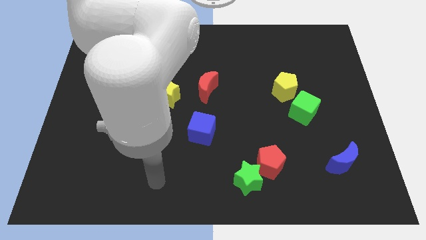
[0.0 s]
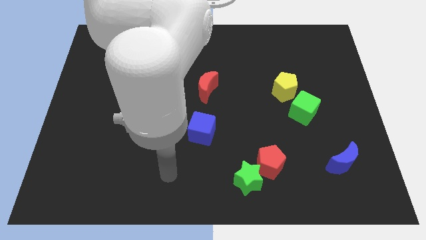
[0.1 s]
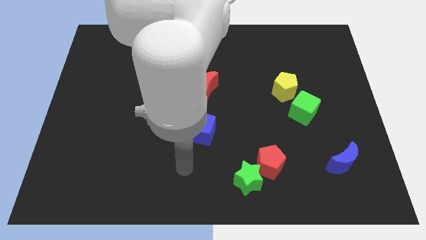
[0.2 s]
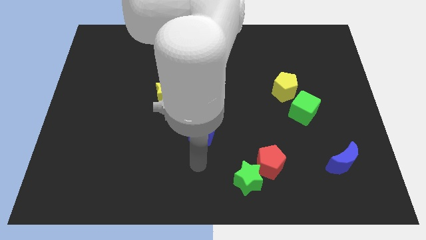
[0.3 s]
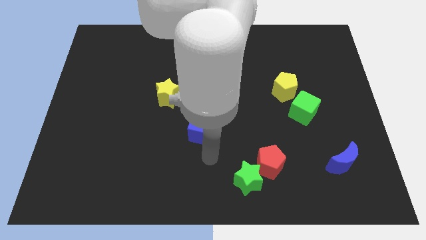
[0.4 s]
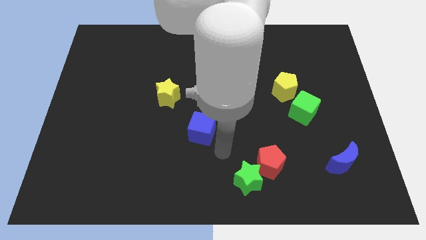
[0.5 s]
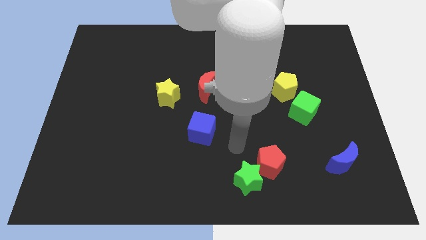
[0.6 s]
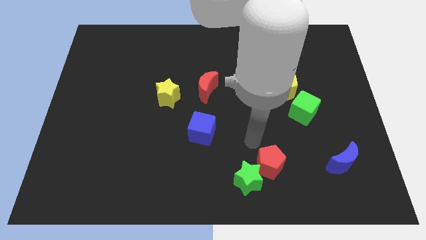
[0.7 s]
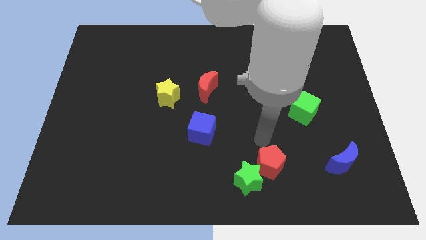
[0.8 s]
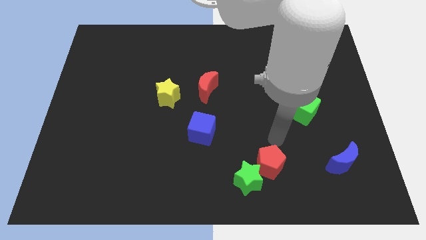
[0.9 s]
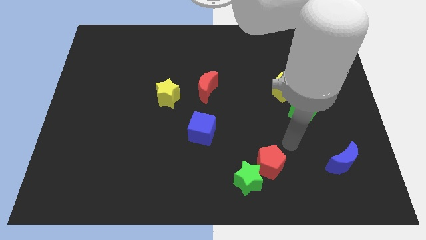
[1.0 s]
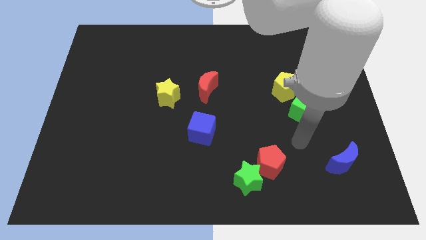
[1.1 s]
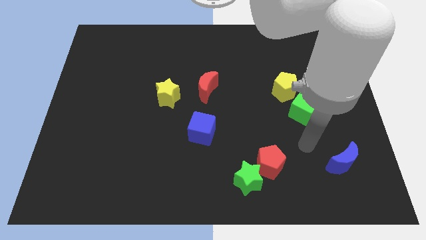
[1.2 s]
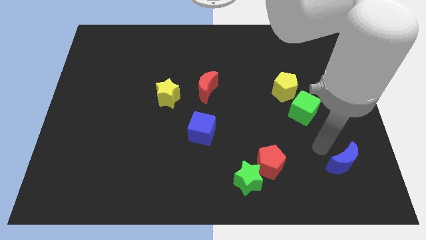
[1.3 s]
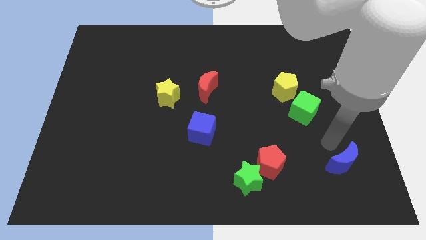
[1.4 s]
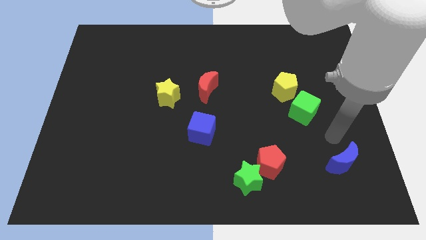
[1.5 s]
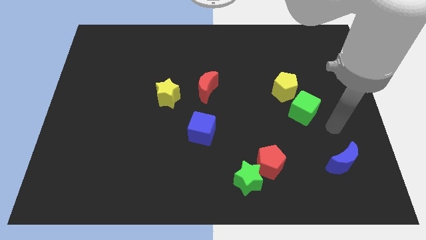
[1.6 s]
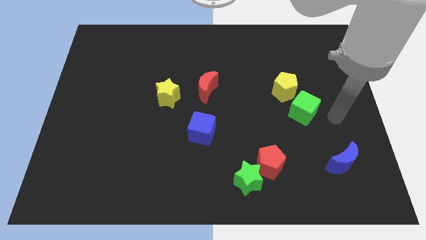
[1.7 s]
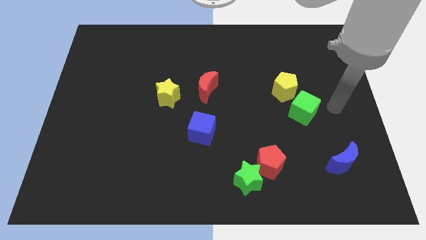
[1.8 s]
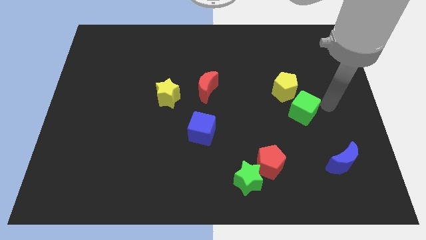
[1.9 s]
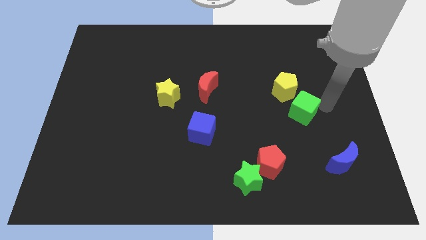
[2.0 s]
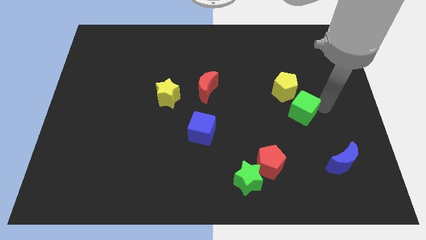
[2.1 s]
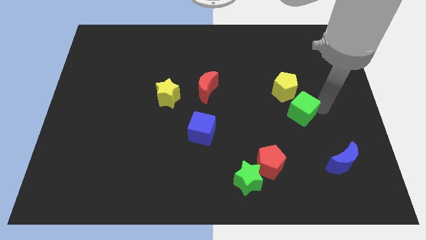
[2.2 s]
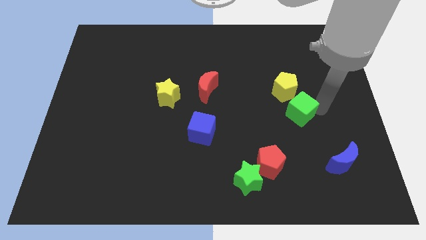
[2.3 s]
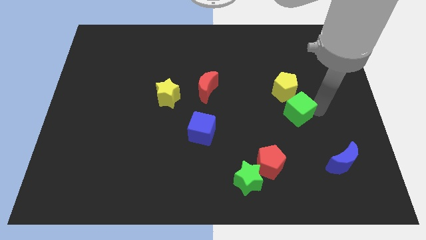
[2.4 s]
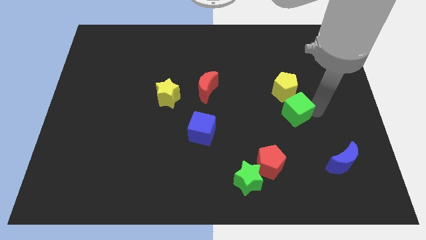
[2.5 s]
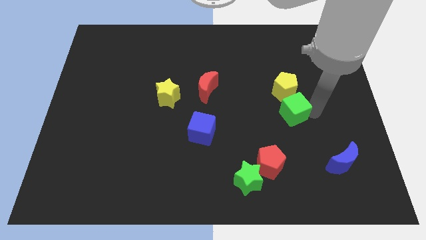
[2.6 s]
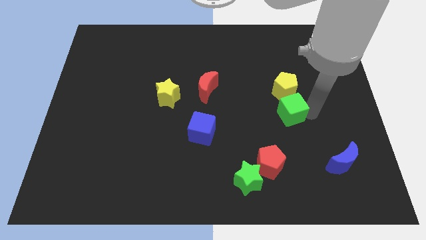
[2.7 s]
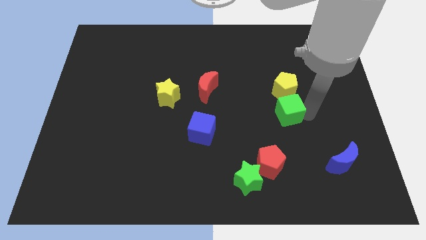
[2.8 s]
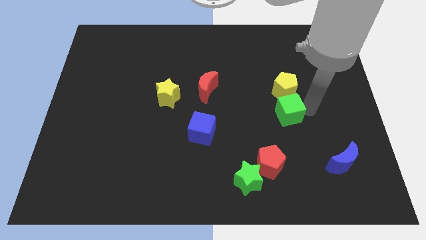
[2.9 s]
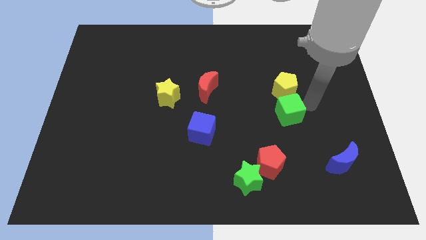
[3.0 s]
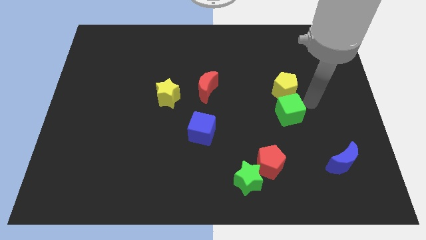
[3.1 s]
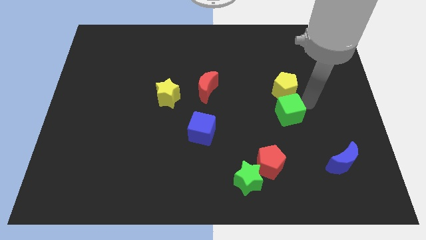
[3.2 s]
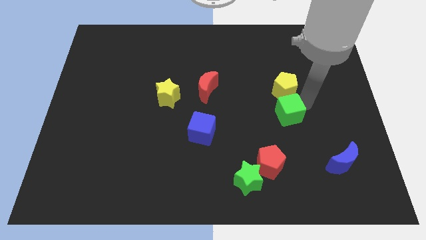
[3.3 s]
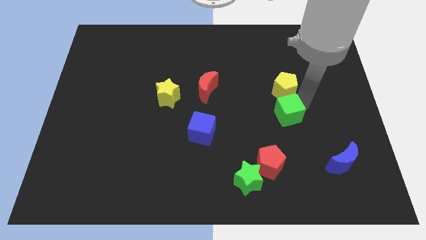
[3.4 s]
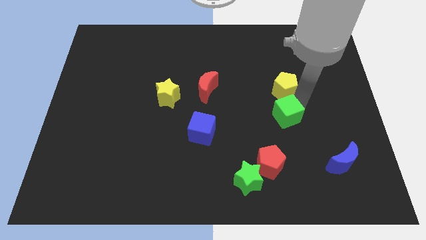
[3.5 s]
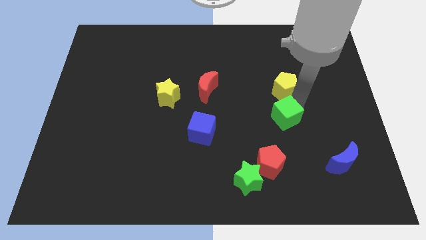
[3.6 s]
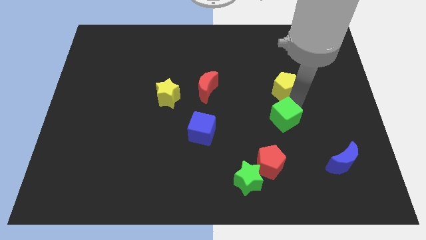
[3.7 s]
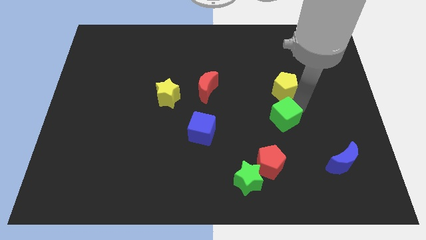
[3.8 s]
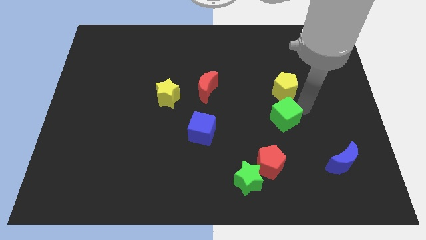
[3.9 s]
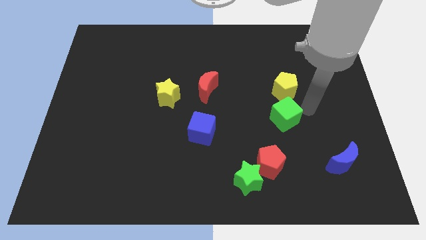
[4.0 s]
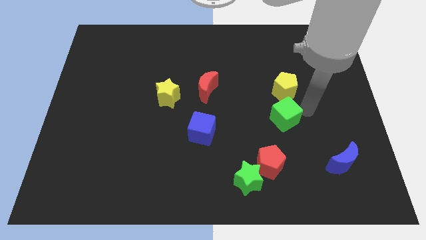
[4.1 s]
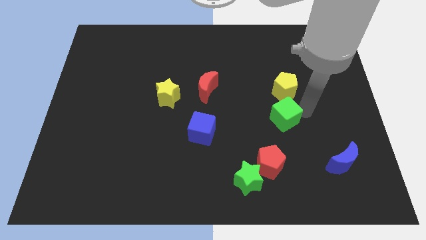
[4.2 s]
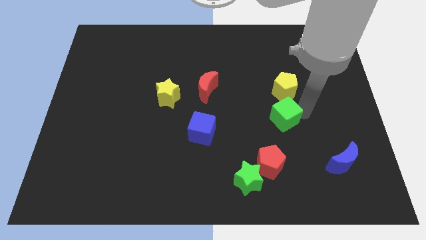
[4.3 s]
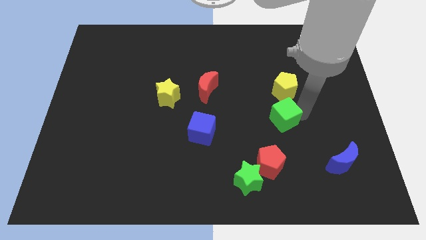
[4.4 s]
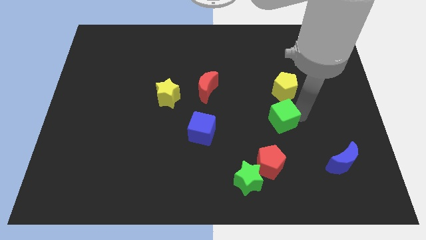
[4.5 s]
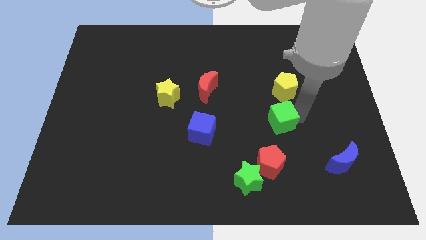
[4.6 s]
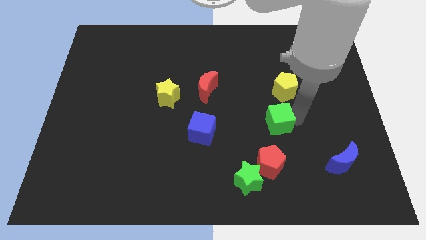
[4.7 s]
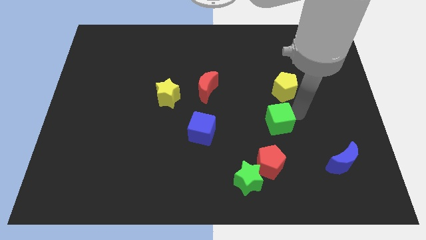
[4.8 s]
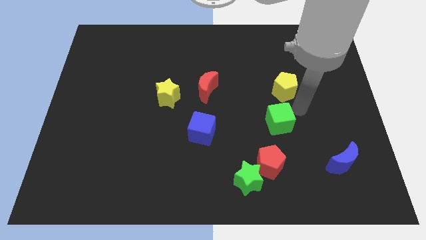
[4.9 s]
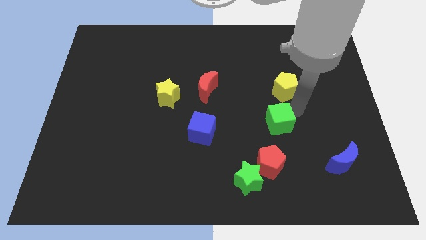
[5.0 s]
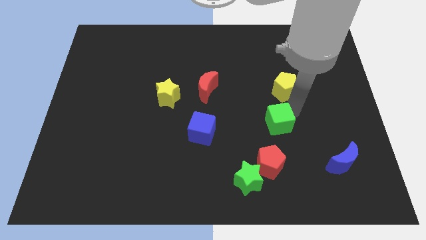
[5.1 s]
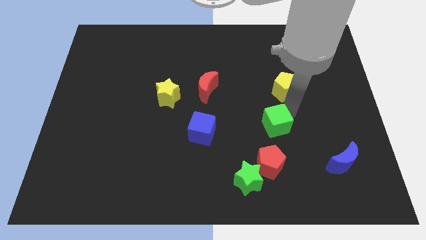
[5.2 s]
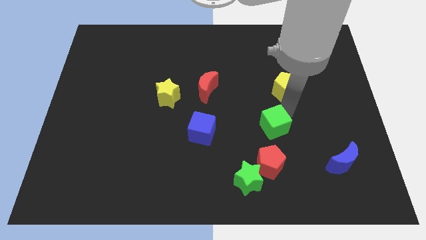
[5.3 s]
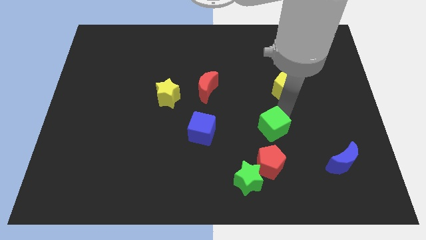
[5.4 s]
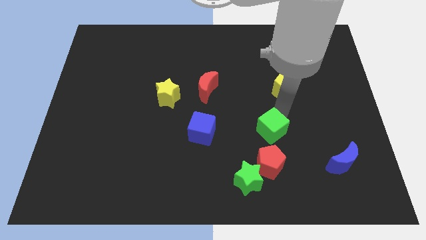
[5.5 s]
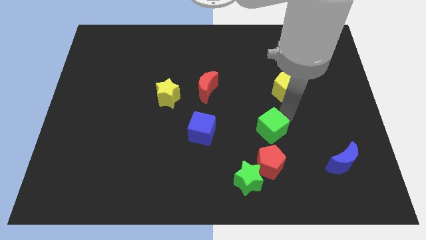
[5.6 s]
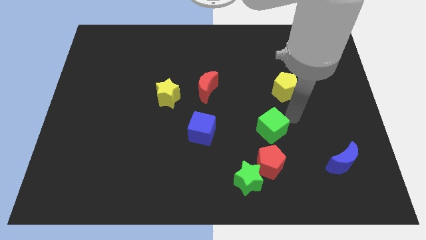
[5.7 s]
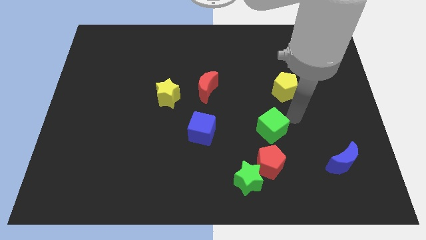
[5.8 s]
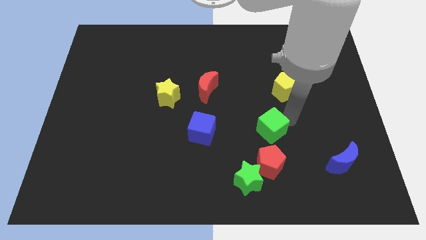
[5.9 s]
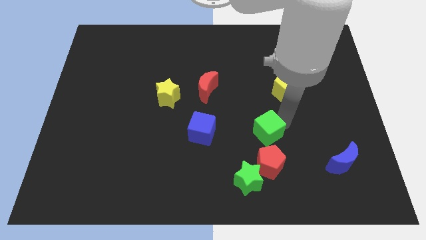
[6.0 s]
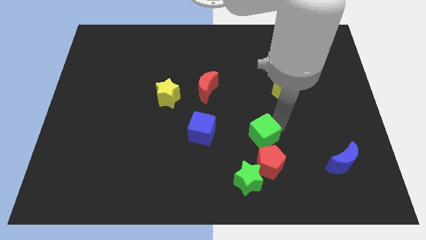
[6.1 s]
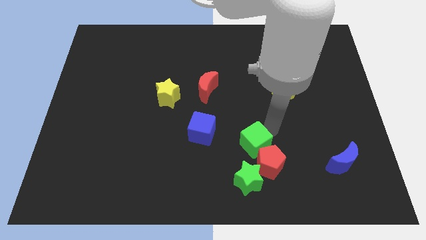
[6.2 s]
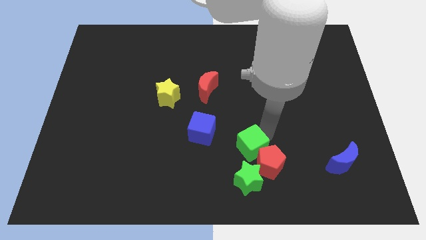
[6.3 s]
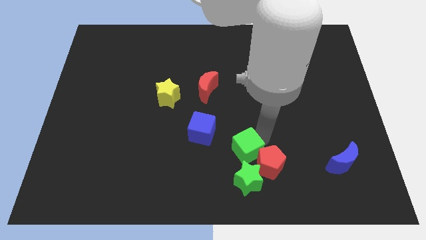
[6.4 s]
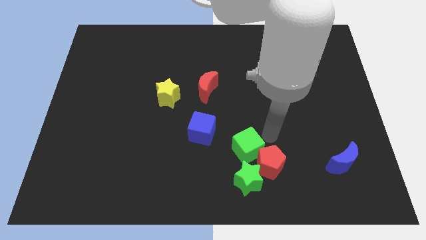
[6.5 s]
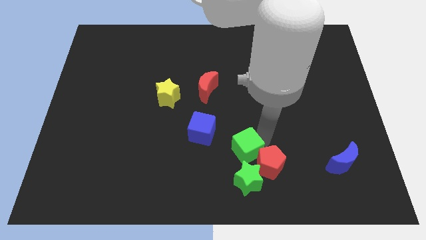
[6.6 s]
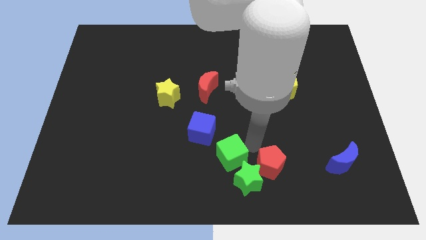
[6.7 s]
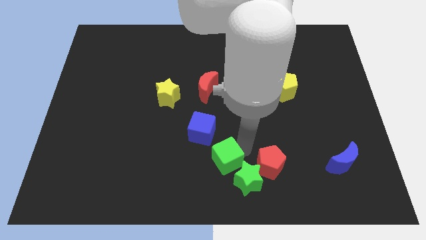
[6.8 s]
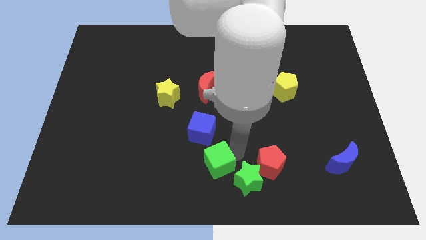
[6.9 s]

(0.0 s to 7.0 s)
push the green cube to the bottom of the blue cube

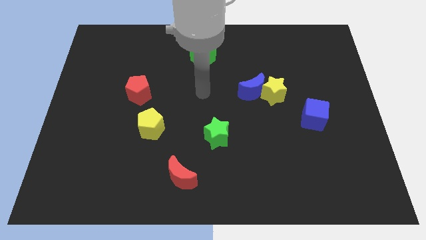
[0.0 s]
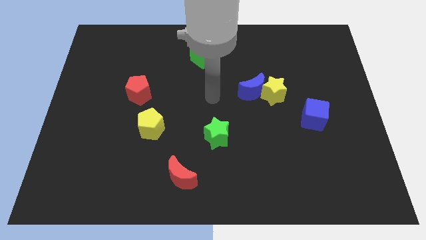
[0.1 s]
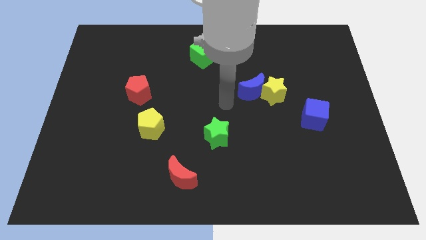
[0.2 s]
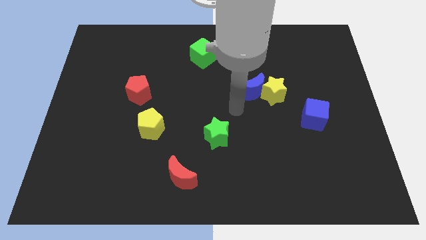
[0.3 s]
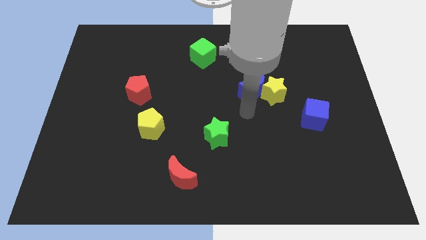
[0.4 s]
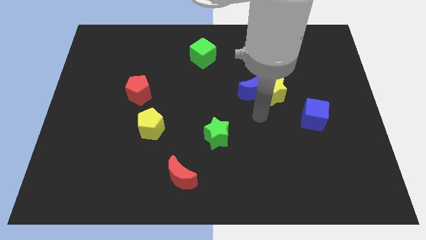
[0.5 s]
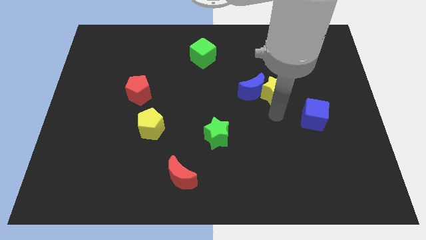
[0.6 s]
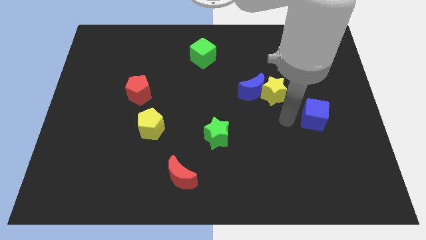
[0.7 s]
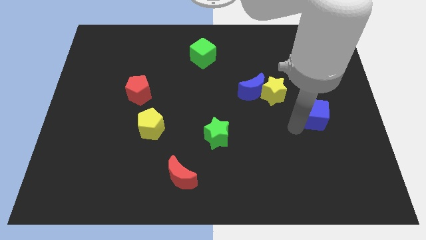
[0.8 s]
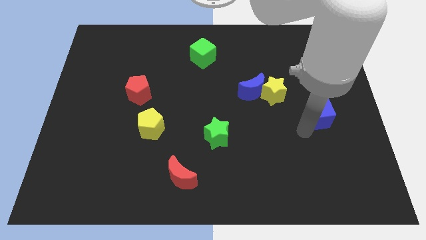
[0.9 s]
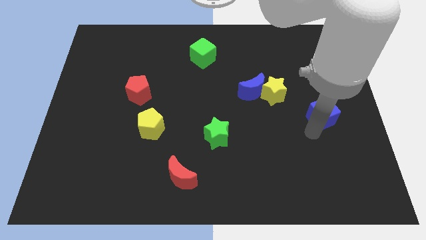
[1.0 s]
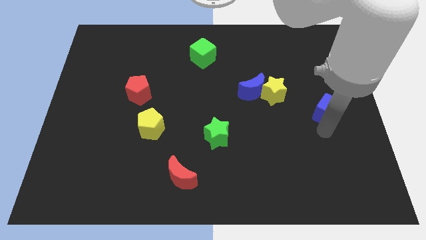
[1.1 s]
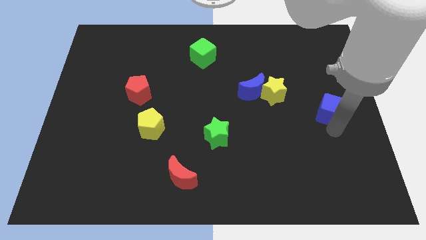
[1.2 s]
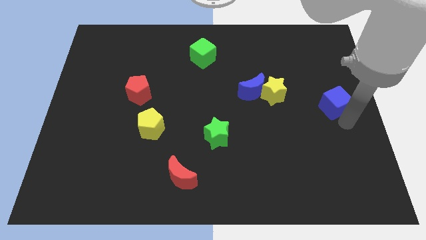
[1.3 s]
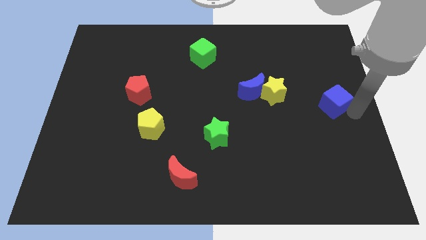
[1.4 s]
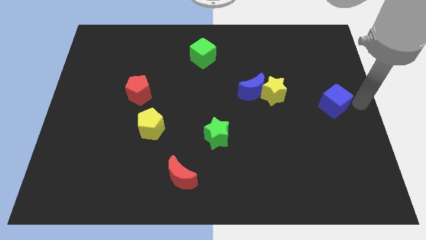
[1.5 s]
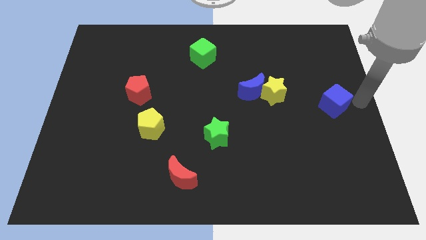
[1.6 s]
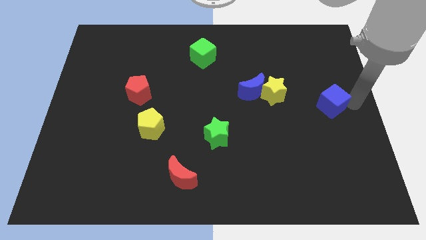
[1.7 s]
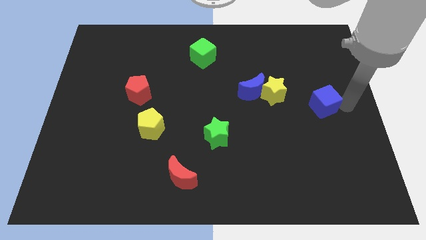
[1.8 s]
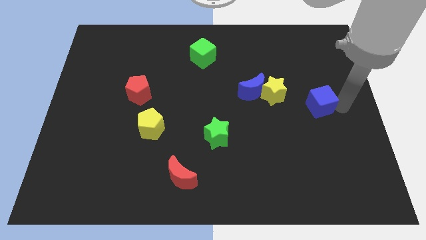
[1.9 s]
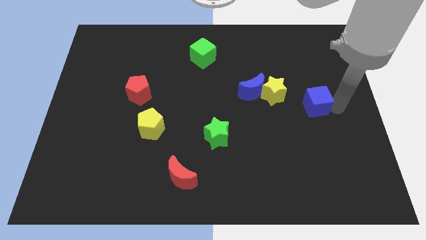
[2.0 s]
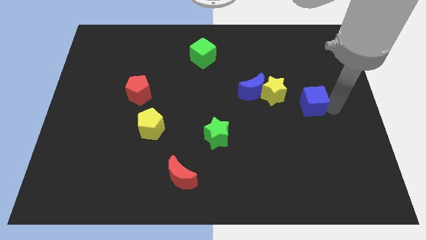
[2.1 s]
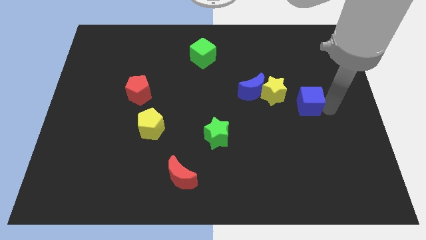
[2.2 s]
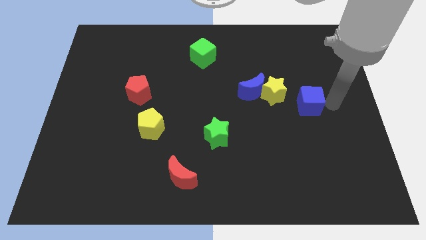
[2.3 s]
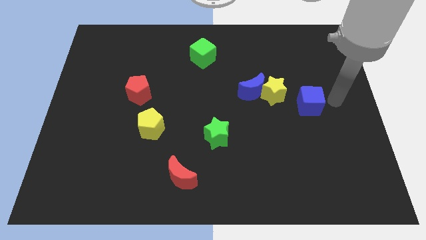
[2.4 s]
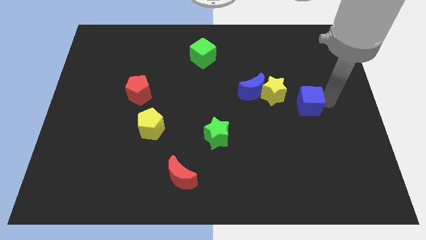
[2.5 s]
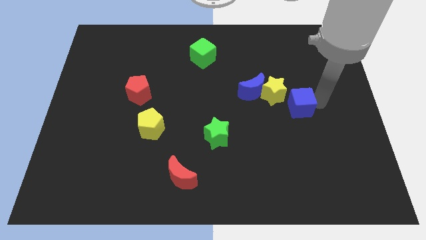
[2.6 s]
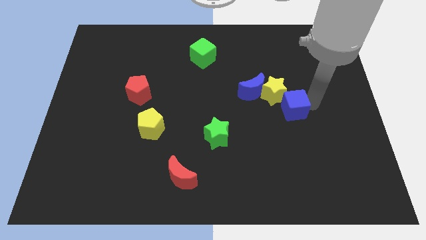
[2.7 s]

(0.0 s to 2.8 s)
push the blue cube to the bottom right of the blue moon
